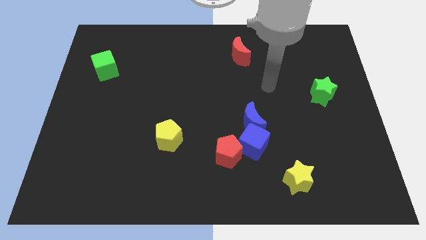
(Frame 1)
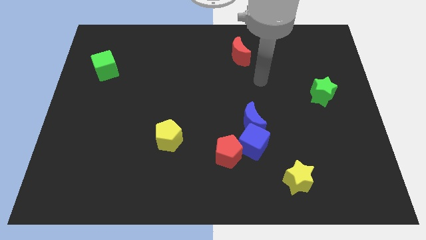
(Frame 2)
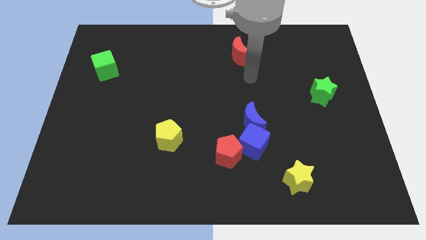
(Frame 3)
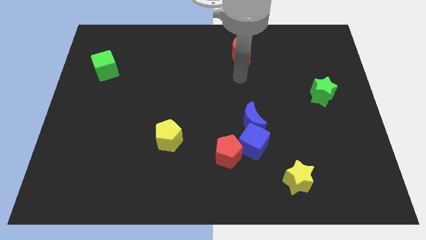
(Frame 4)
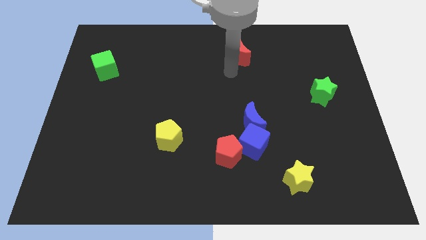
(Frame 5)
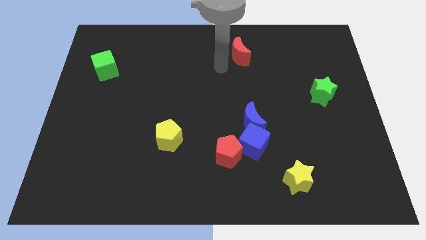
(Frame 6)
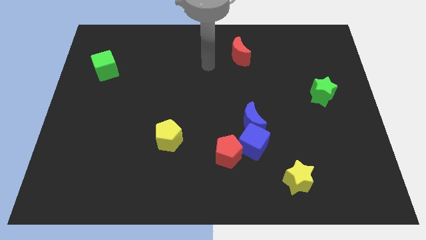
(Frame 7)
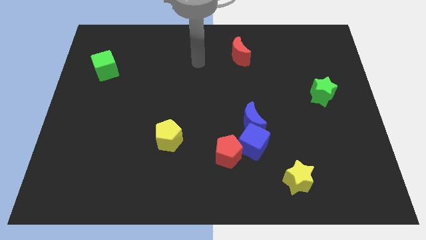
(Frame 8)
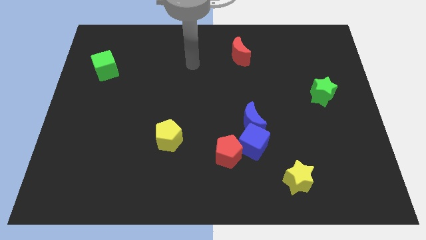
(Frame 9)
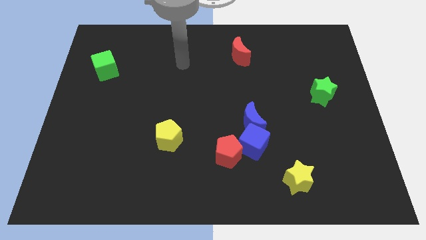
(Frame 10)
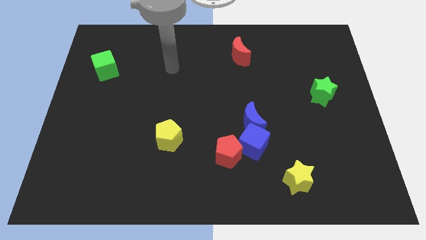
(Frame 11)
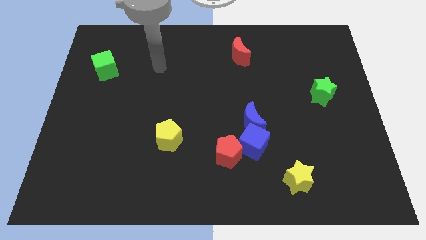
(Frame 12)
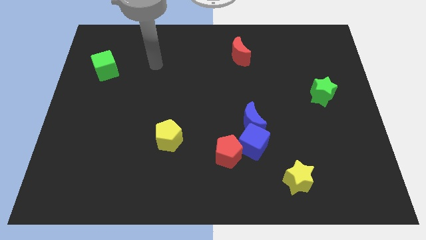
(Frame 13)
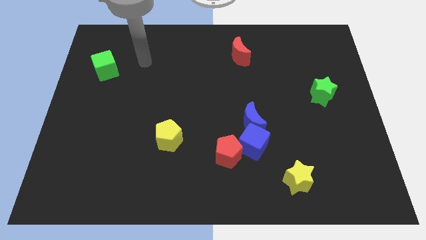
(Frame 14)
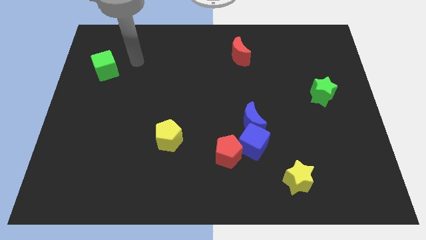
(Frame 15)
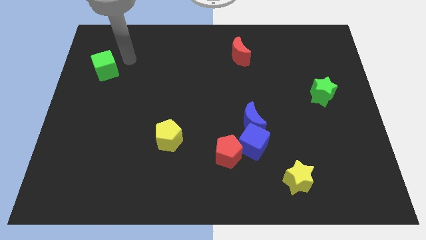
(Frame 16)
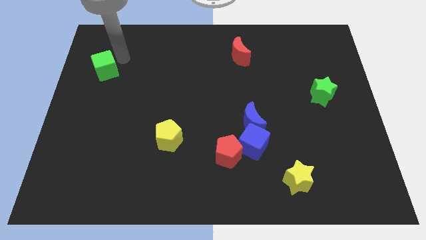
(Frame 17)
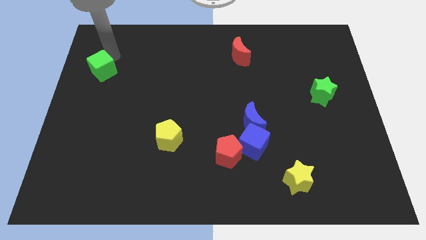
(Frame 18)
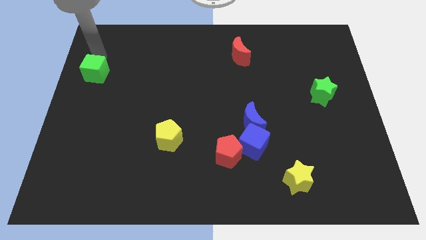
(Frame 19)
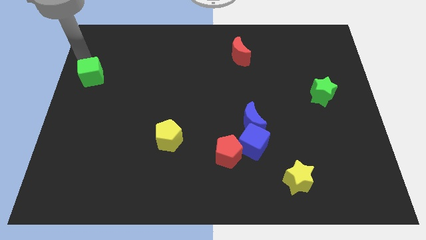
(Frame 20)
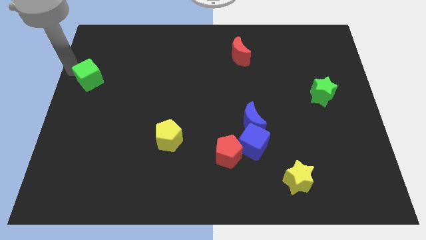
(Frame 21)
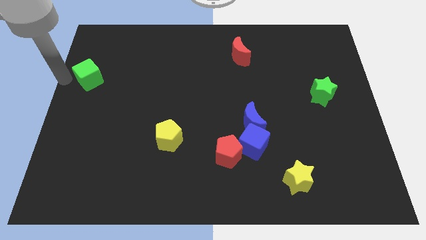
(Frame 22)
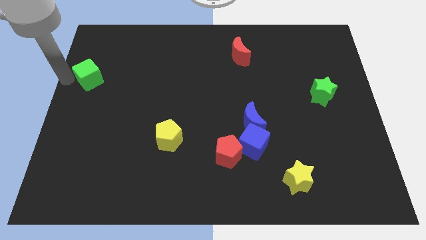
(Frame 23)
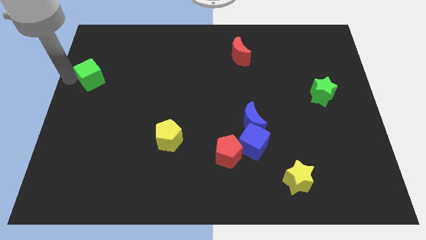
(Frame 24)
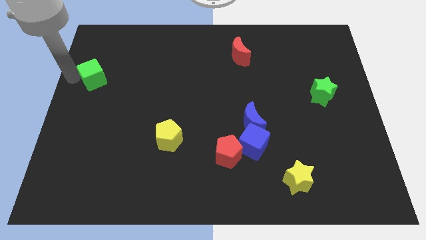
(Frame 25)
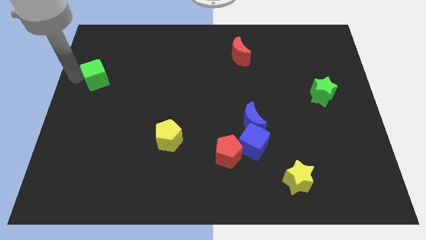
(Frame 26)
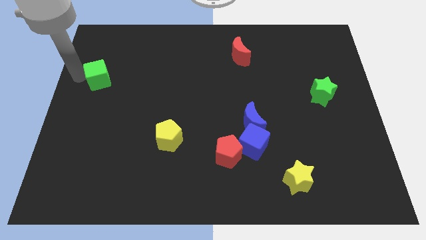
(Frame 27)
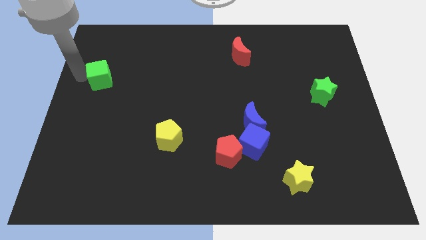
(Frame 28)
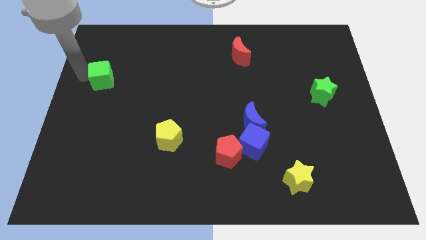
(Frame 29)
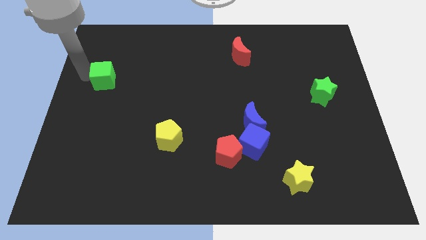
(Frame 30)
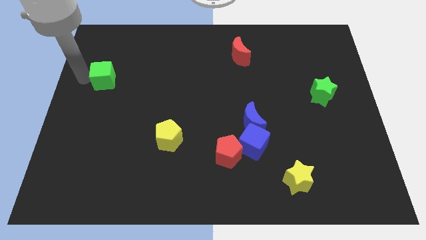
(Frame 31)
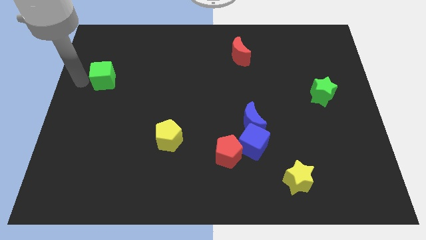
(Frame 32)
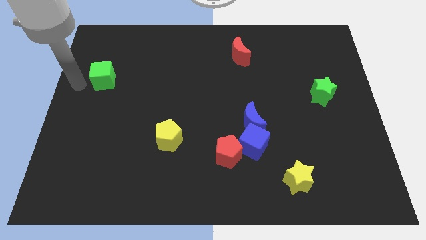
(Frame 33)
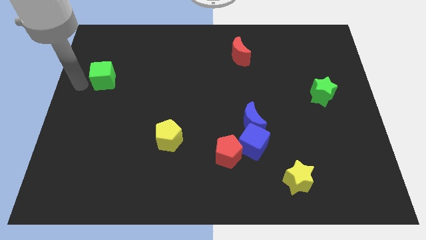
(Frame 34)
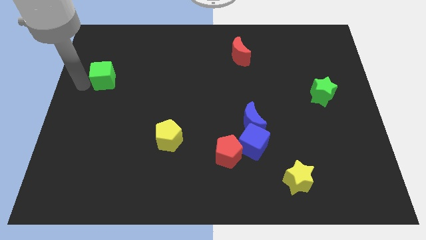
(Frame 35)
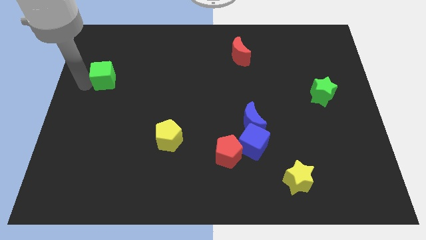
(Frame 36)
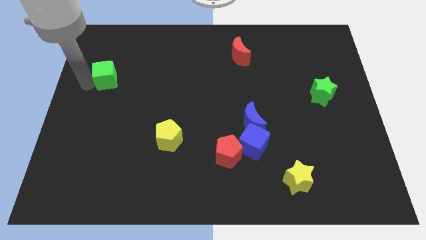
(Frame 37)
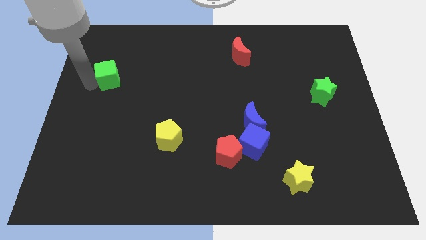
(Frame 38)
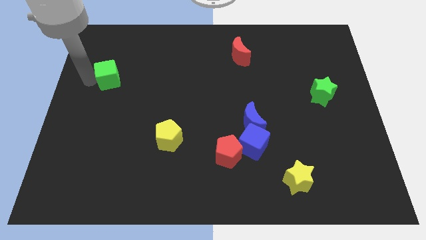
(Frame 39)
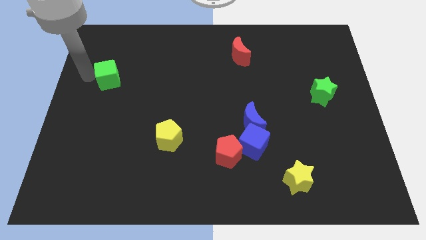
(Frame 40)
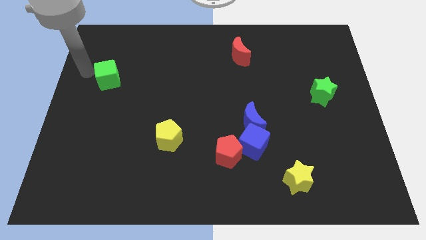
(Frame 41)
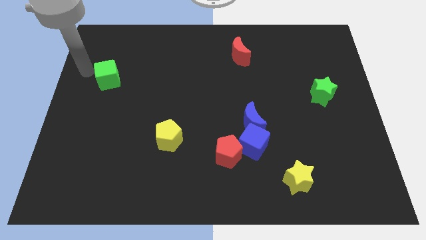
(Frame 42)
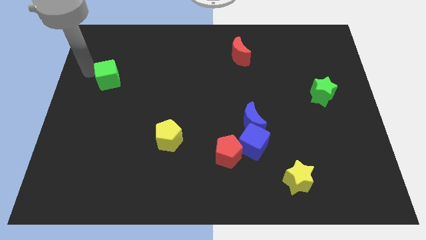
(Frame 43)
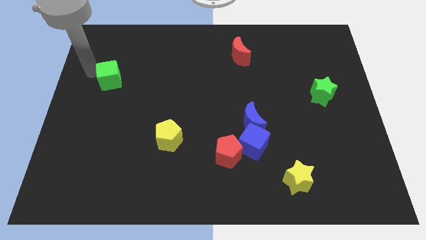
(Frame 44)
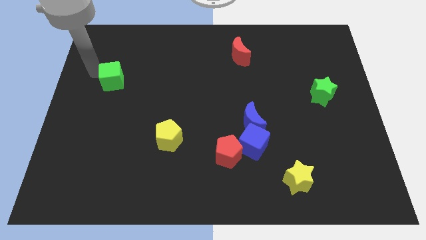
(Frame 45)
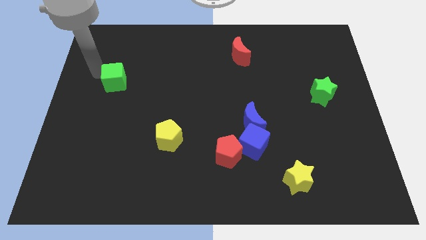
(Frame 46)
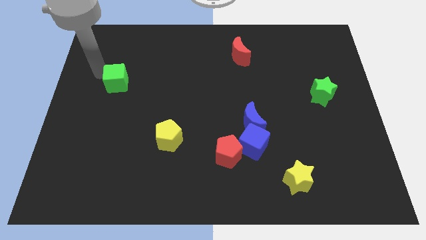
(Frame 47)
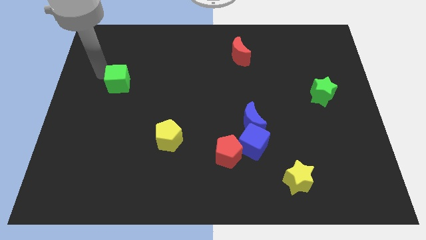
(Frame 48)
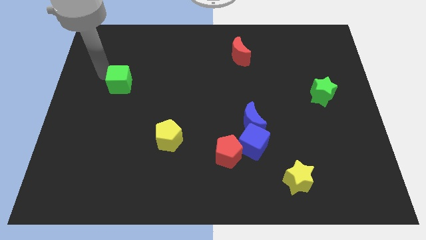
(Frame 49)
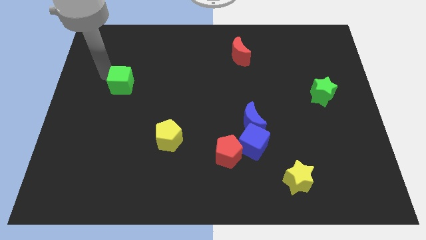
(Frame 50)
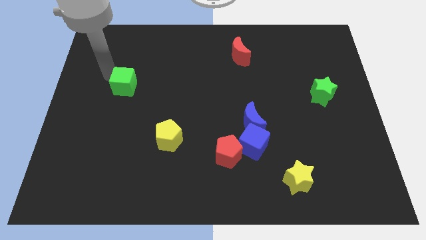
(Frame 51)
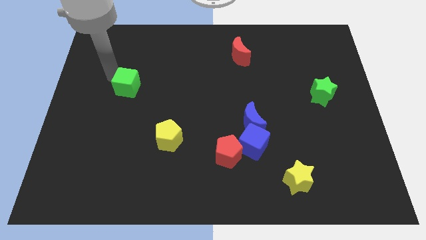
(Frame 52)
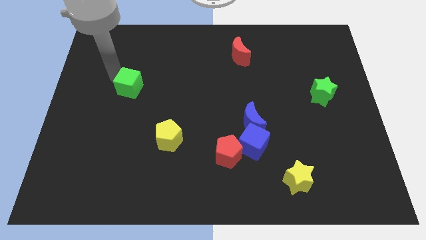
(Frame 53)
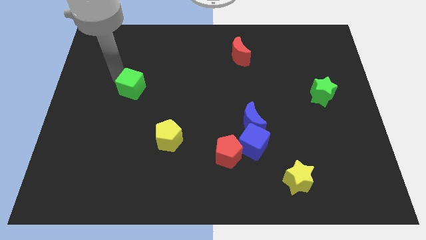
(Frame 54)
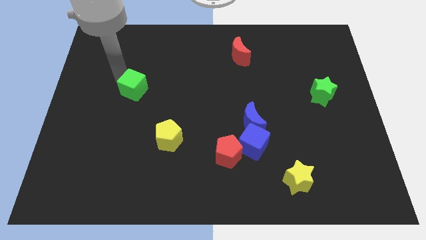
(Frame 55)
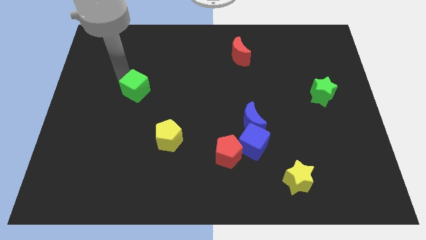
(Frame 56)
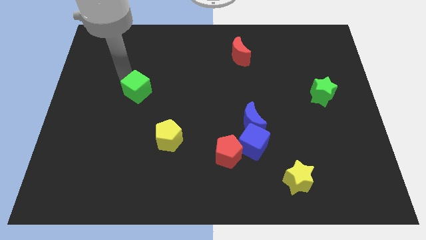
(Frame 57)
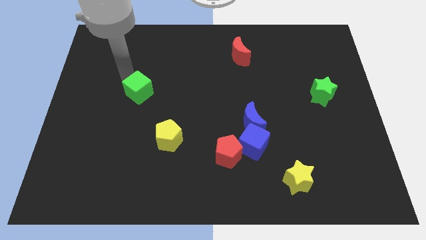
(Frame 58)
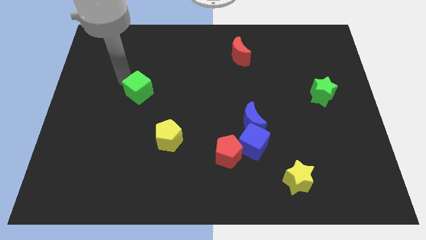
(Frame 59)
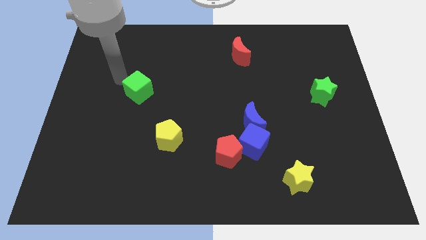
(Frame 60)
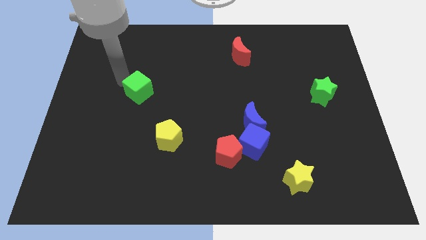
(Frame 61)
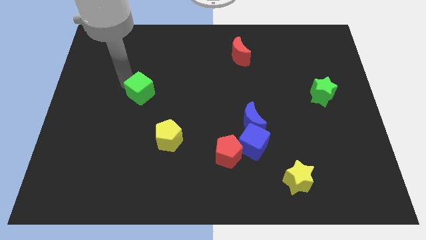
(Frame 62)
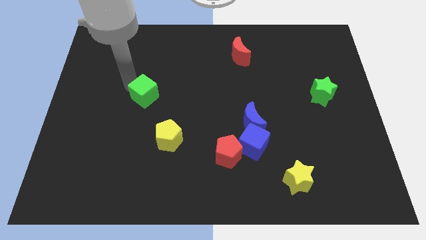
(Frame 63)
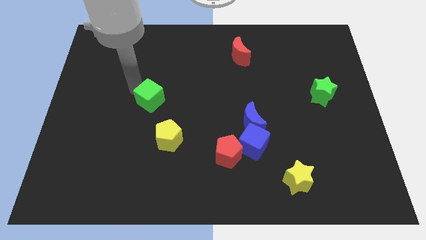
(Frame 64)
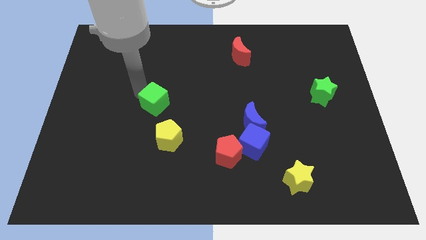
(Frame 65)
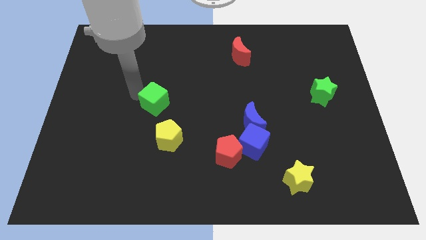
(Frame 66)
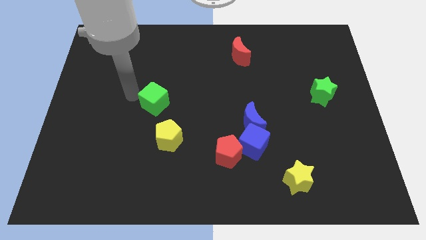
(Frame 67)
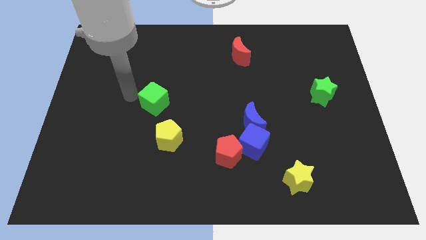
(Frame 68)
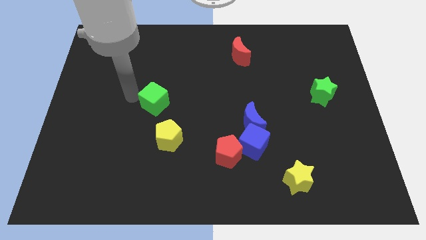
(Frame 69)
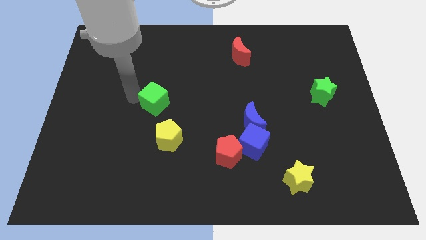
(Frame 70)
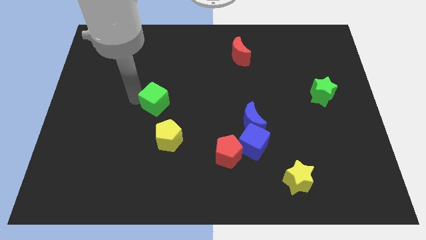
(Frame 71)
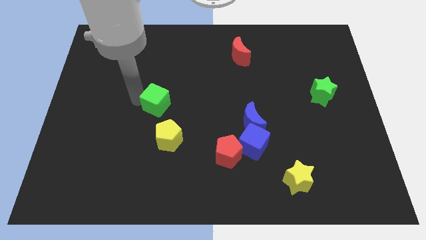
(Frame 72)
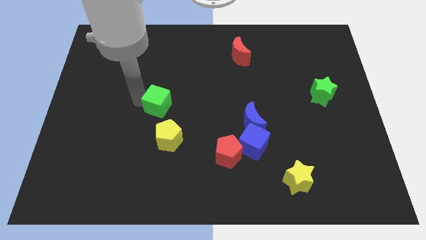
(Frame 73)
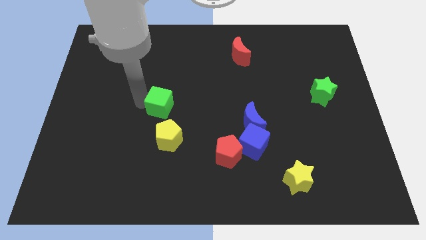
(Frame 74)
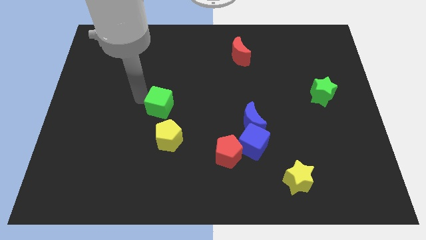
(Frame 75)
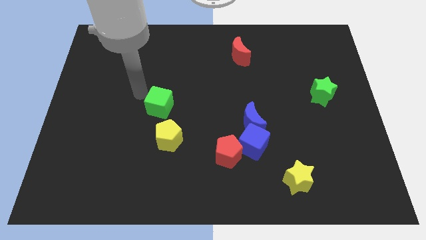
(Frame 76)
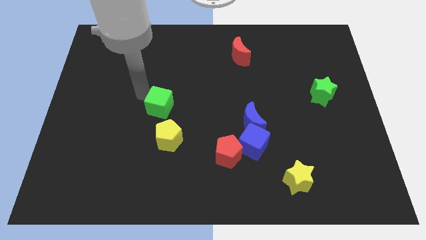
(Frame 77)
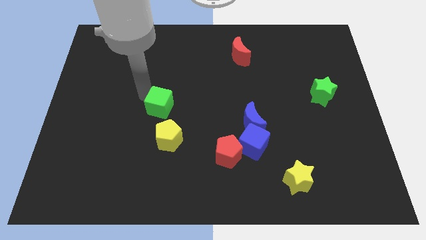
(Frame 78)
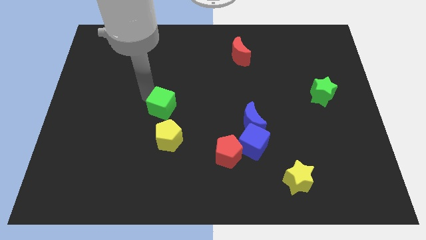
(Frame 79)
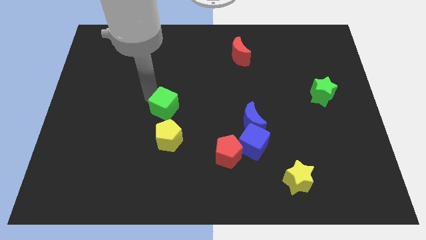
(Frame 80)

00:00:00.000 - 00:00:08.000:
move the green cube down and then to the right

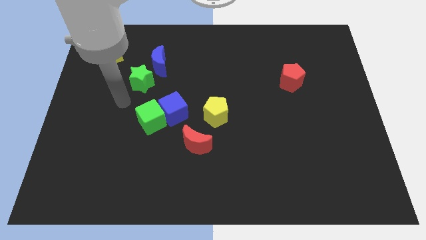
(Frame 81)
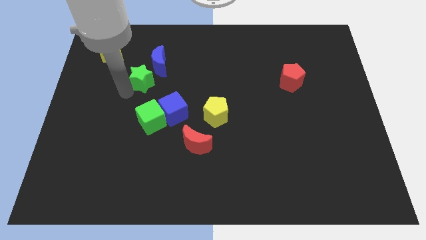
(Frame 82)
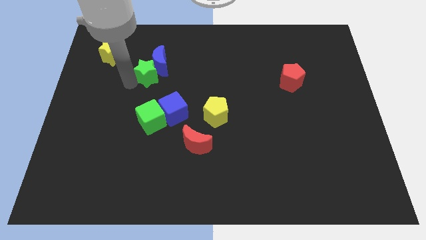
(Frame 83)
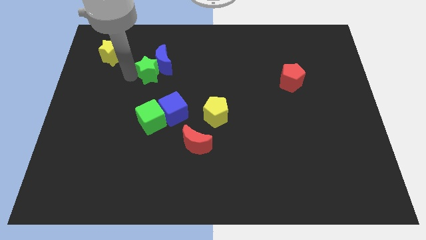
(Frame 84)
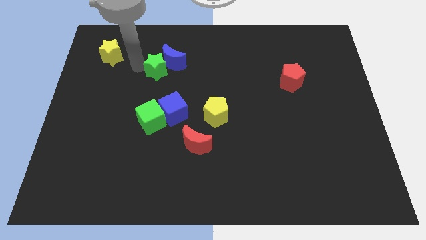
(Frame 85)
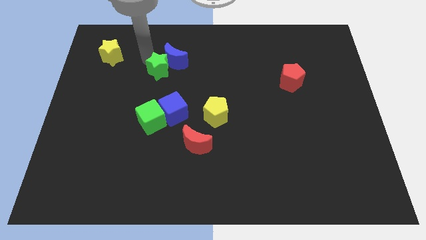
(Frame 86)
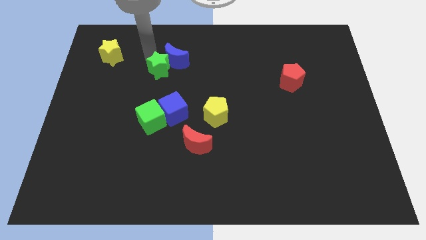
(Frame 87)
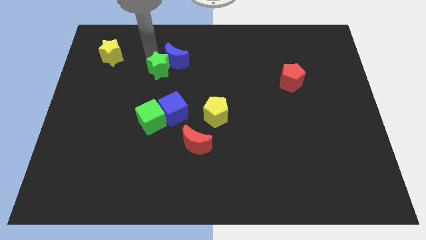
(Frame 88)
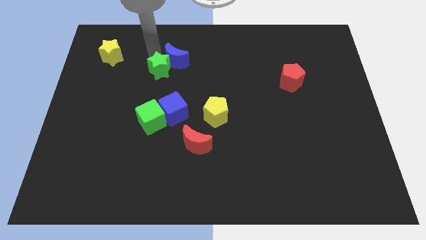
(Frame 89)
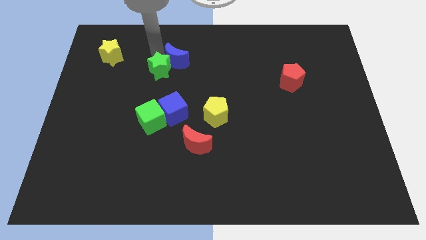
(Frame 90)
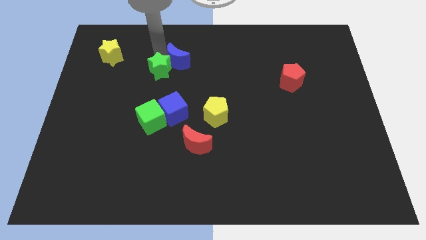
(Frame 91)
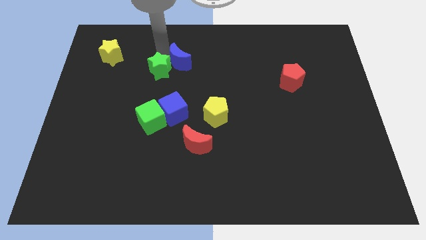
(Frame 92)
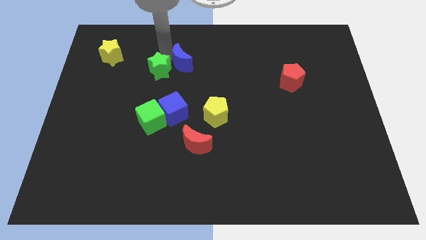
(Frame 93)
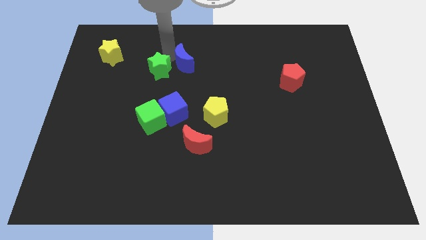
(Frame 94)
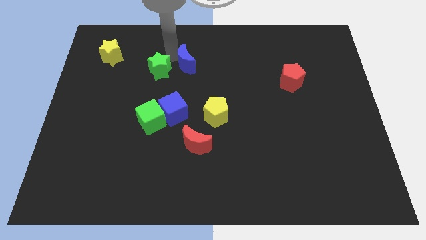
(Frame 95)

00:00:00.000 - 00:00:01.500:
move the blue moon right a little bit
